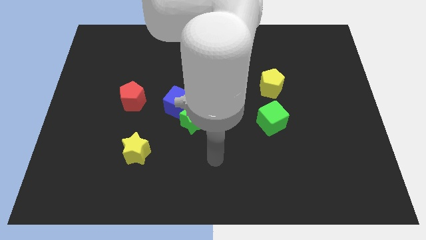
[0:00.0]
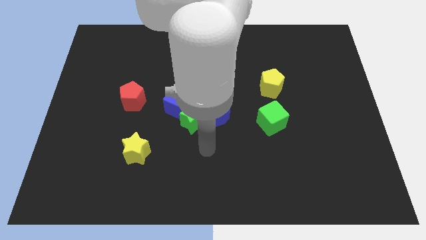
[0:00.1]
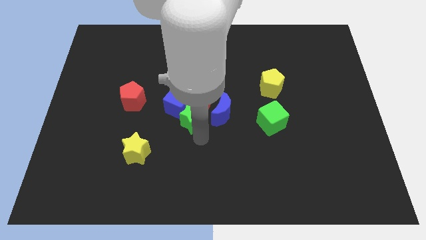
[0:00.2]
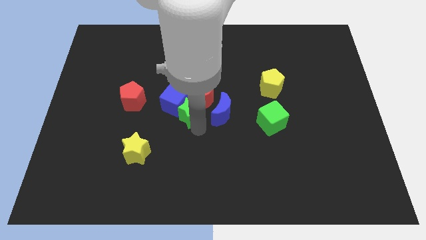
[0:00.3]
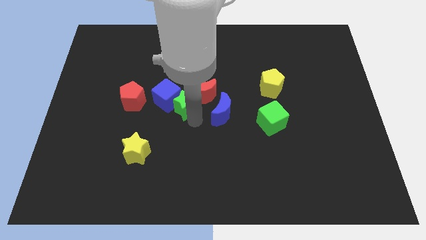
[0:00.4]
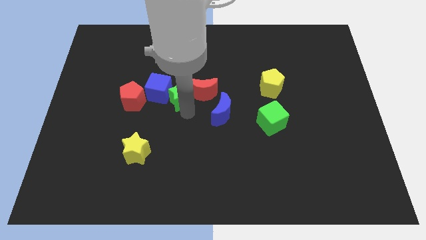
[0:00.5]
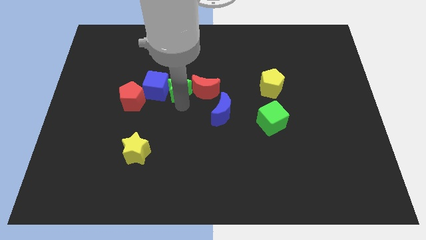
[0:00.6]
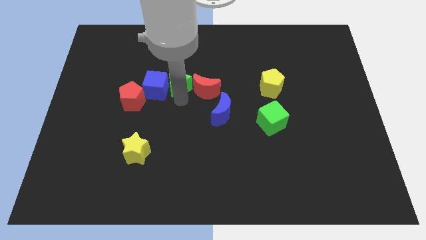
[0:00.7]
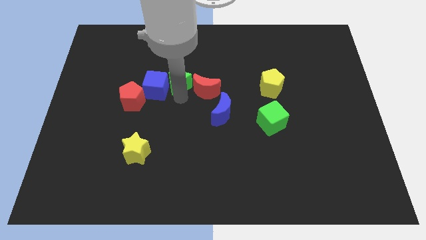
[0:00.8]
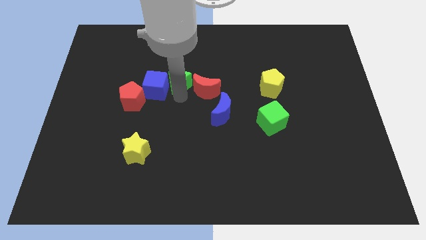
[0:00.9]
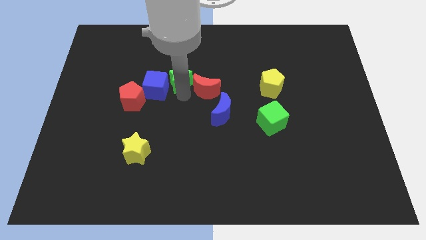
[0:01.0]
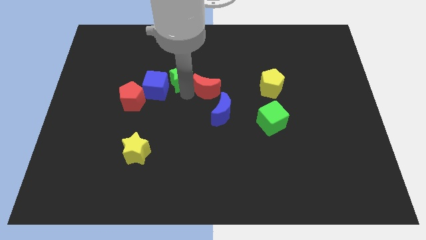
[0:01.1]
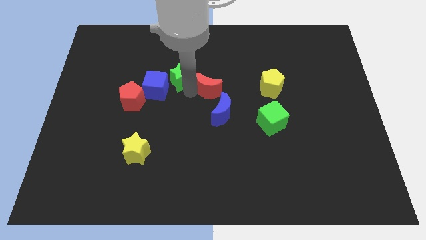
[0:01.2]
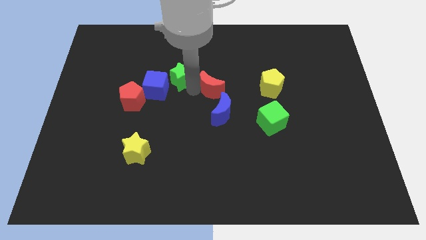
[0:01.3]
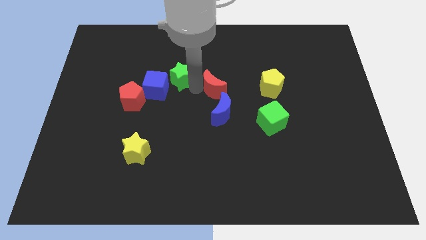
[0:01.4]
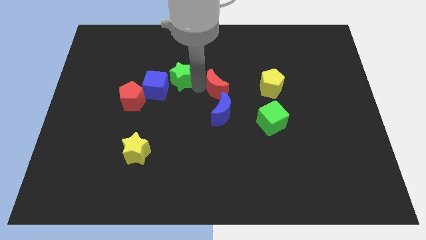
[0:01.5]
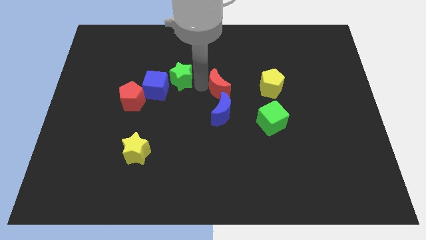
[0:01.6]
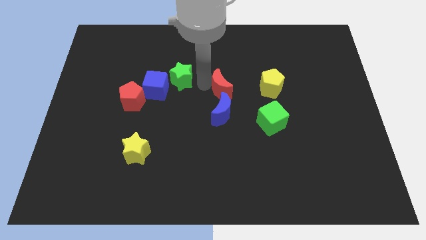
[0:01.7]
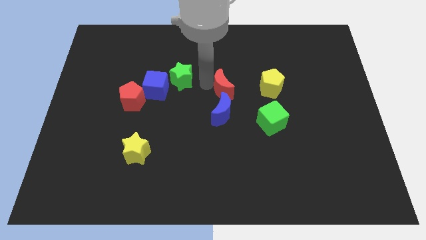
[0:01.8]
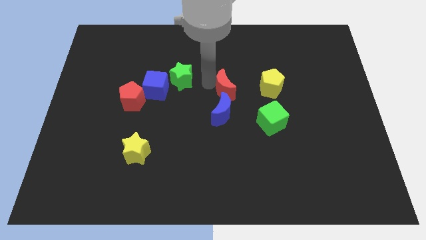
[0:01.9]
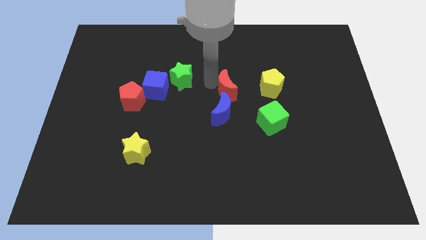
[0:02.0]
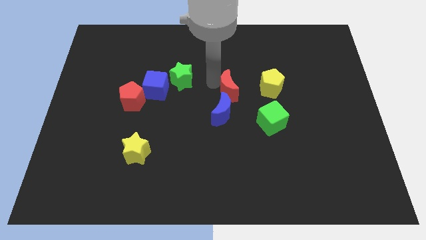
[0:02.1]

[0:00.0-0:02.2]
separate the red moon from the group of blocks

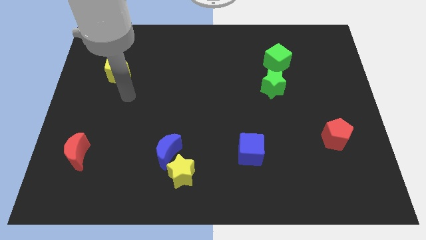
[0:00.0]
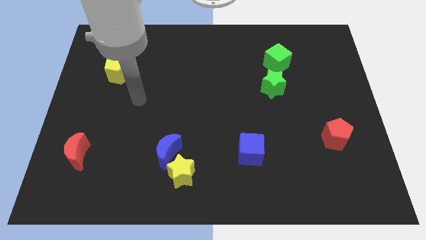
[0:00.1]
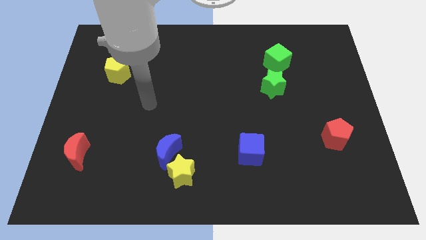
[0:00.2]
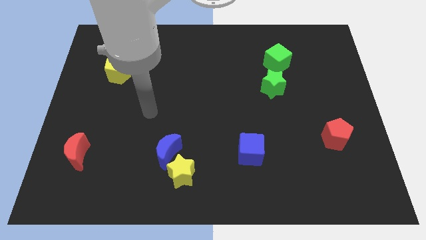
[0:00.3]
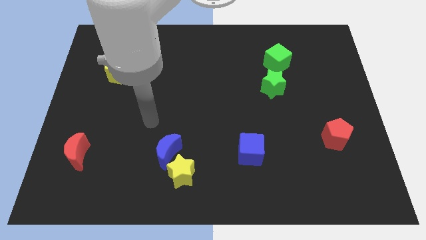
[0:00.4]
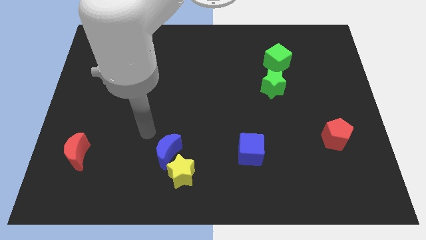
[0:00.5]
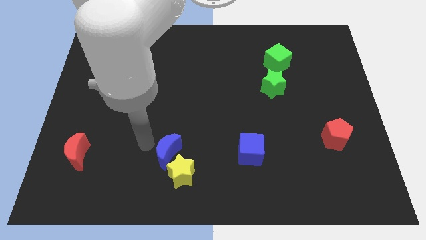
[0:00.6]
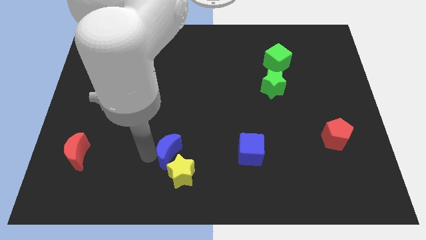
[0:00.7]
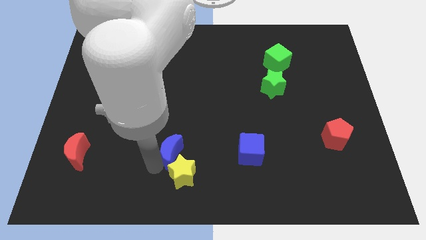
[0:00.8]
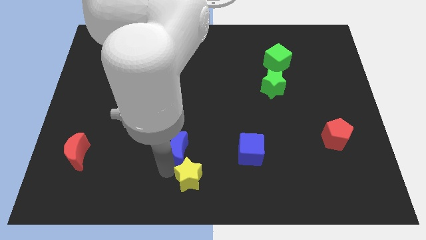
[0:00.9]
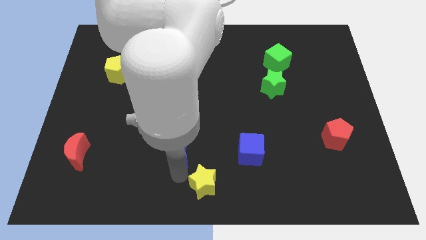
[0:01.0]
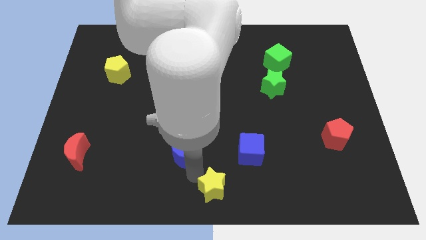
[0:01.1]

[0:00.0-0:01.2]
move the blue moon away from the yellow star

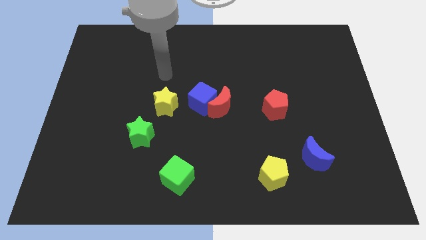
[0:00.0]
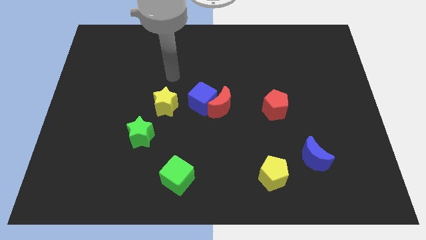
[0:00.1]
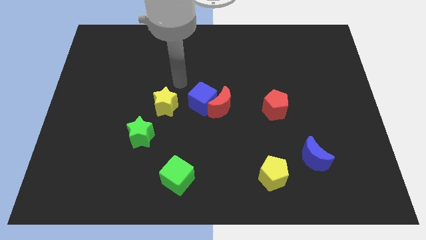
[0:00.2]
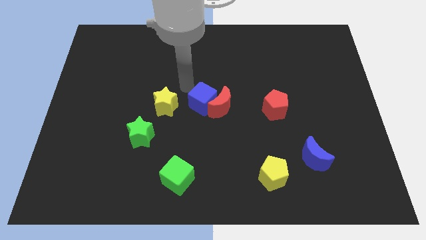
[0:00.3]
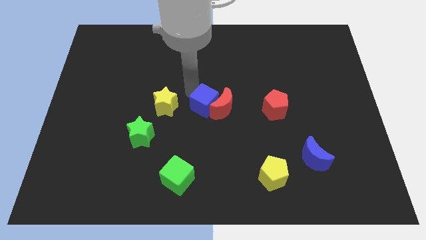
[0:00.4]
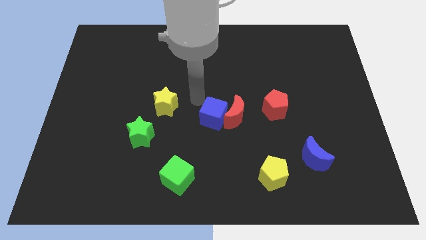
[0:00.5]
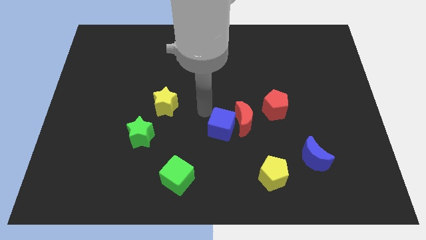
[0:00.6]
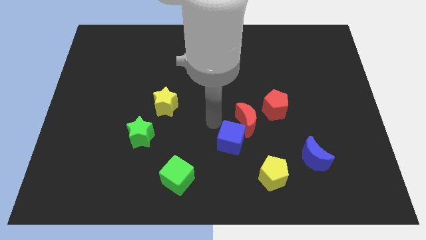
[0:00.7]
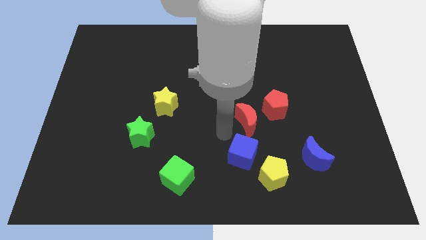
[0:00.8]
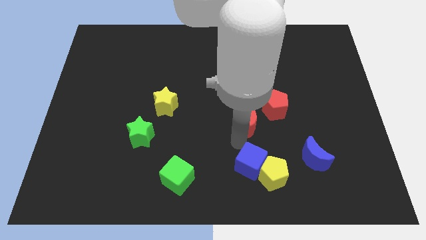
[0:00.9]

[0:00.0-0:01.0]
move the red moon away from the blue cube

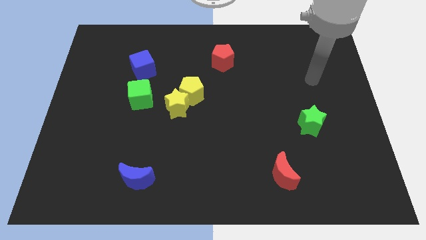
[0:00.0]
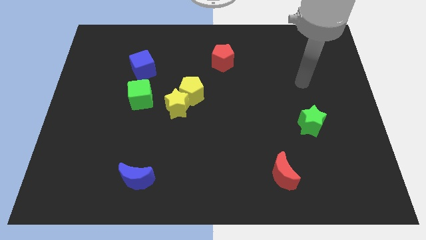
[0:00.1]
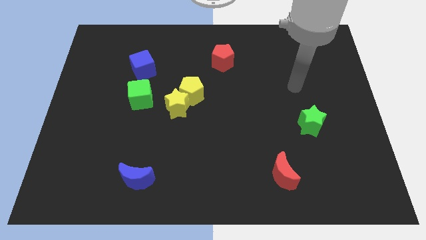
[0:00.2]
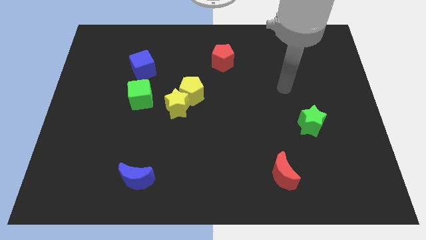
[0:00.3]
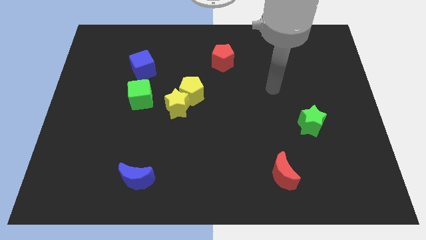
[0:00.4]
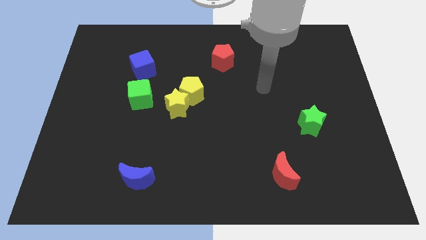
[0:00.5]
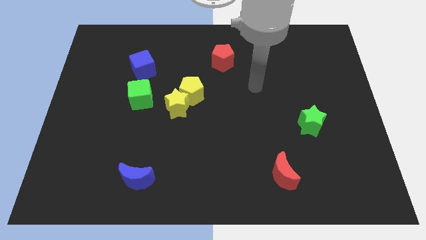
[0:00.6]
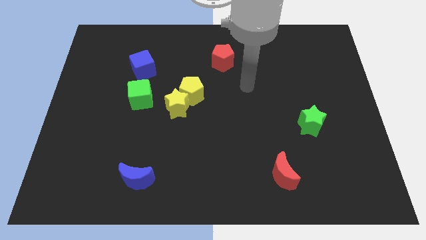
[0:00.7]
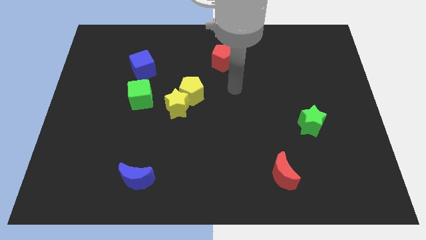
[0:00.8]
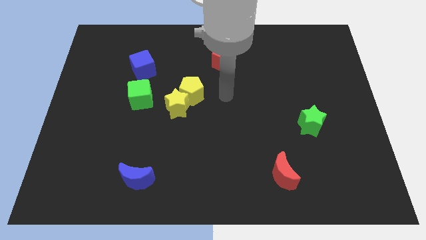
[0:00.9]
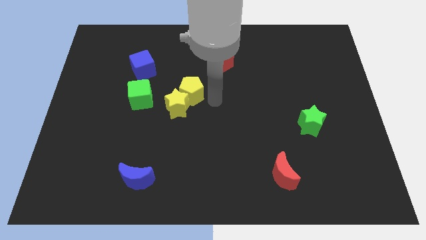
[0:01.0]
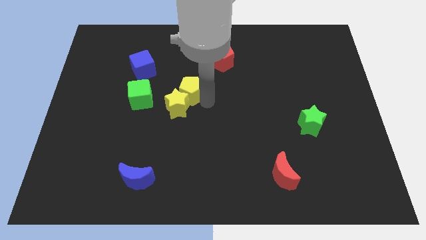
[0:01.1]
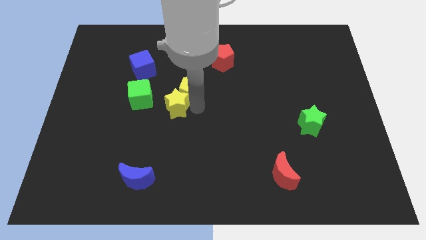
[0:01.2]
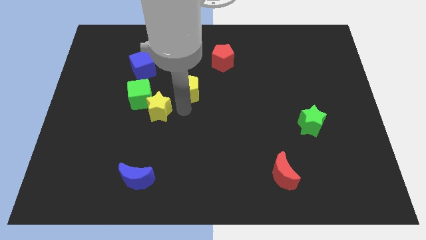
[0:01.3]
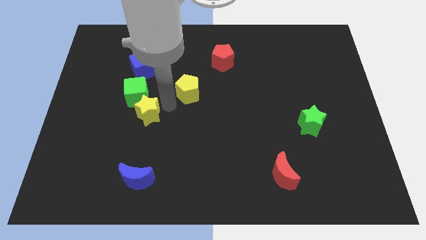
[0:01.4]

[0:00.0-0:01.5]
pull the yellow pentagon apart from the yellow star

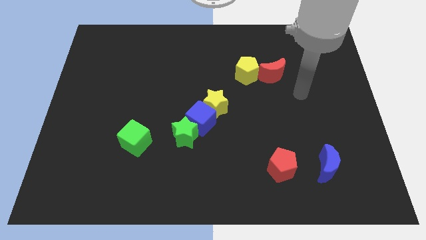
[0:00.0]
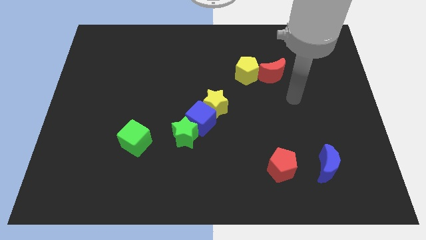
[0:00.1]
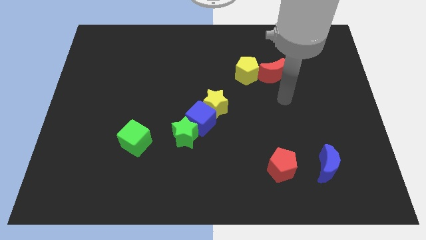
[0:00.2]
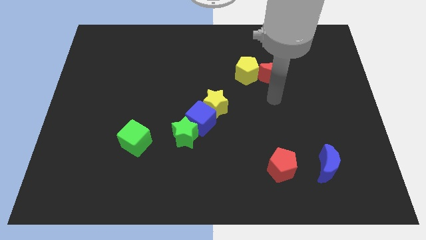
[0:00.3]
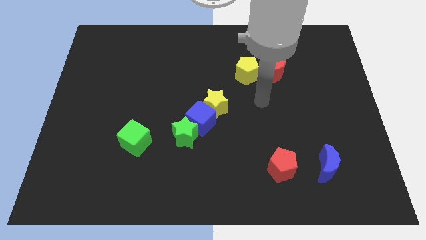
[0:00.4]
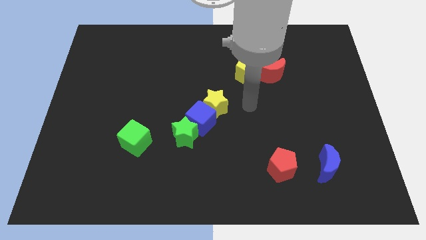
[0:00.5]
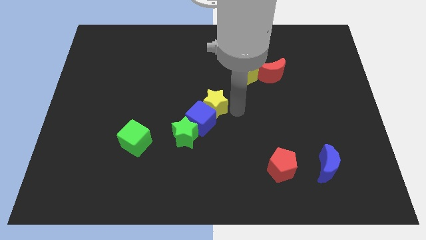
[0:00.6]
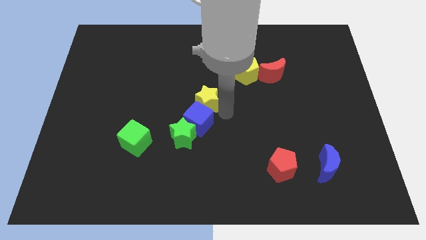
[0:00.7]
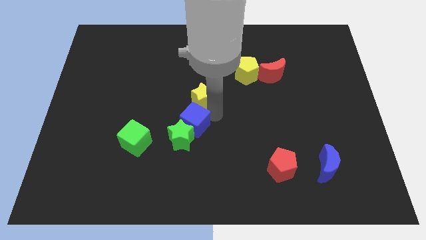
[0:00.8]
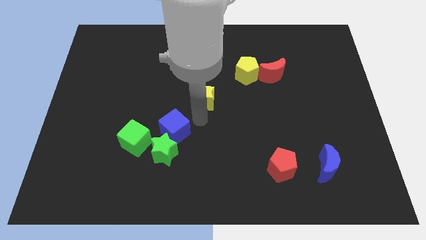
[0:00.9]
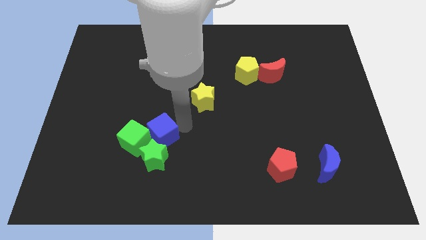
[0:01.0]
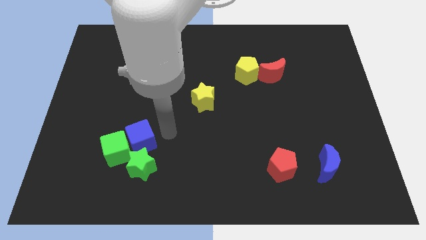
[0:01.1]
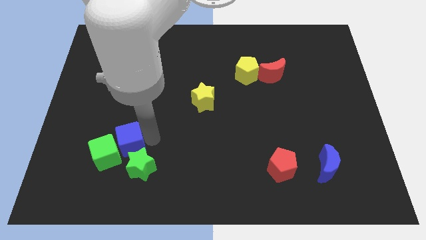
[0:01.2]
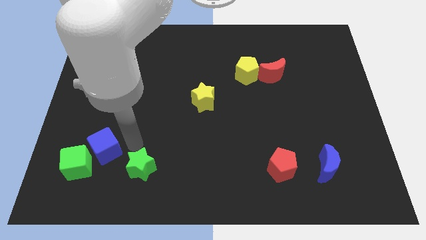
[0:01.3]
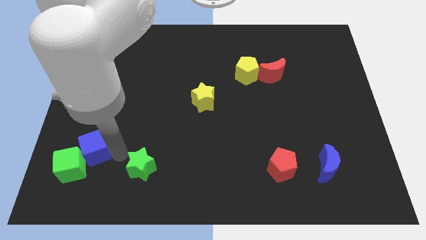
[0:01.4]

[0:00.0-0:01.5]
move the green star away from the blue cube

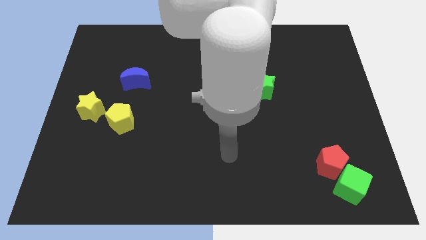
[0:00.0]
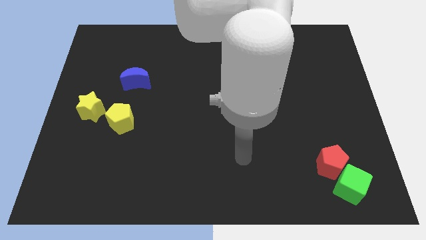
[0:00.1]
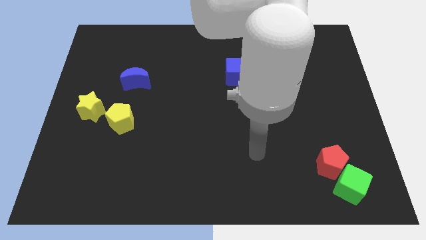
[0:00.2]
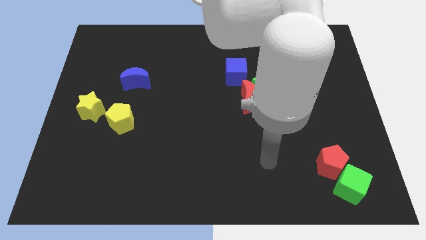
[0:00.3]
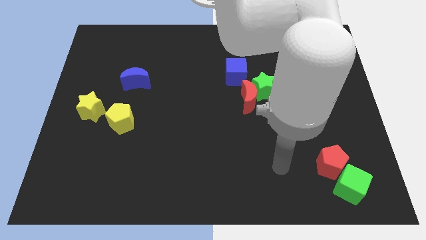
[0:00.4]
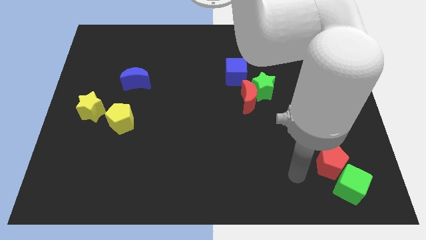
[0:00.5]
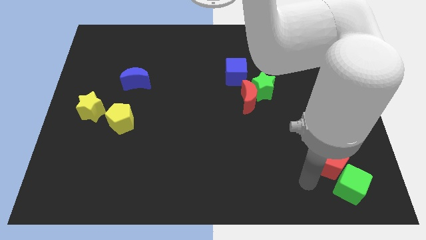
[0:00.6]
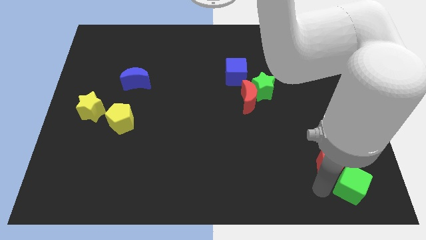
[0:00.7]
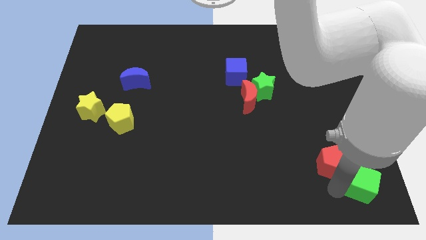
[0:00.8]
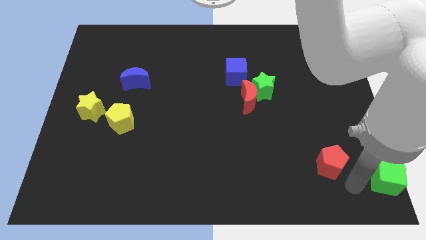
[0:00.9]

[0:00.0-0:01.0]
move the red pentagon away from the green cube

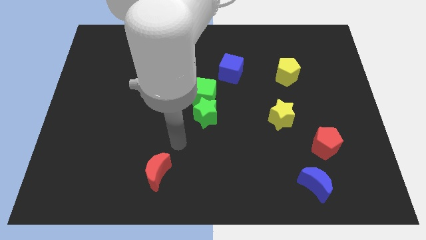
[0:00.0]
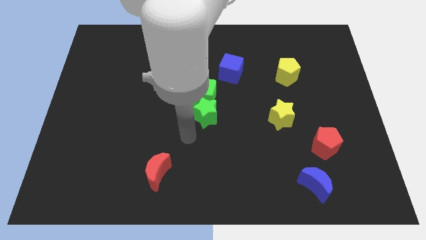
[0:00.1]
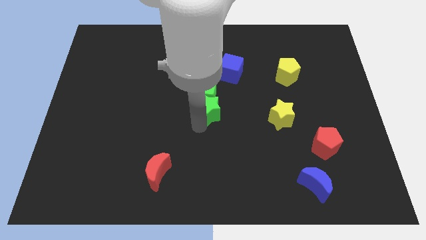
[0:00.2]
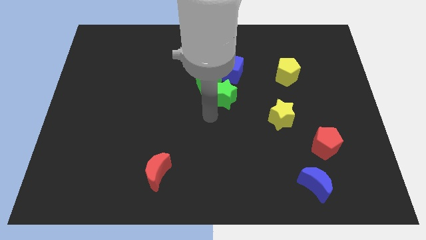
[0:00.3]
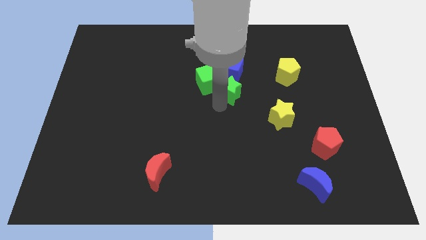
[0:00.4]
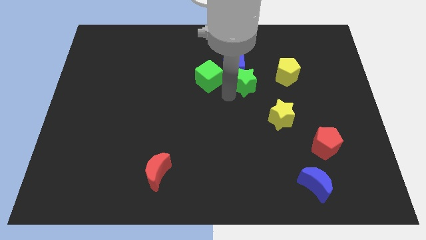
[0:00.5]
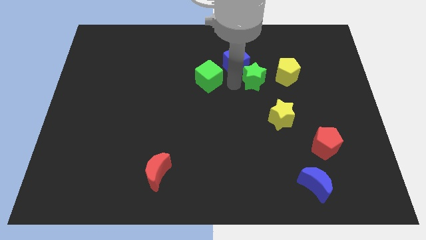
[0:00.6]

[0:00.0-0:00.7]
pull the green cube apart from the green star

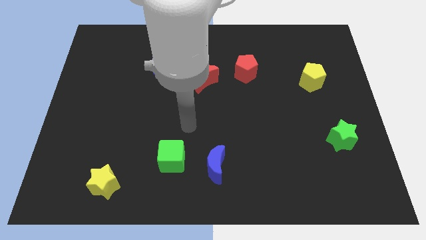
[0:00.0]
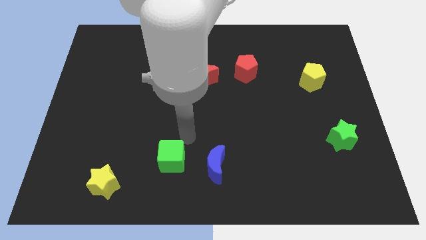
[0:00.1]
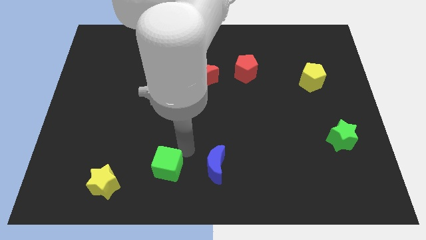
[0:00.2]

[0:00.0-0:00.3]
pull the blue moon apart from the green cube
